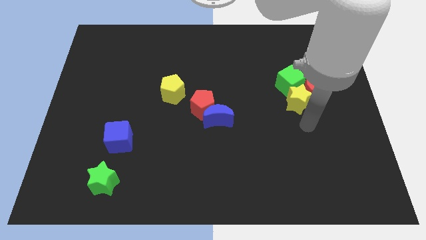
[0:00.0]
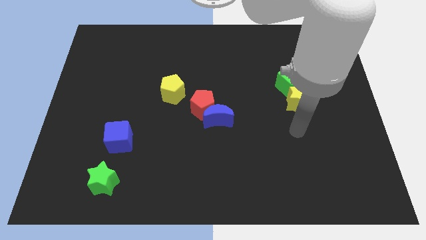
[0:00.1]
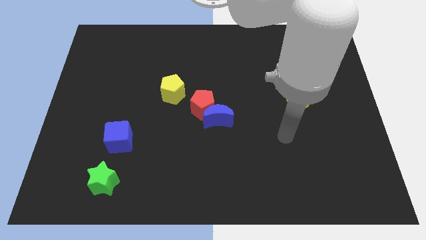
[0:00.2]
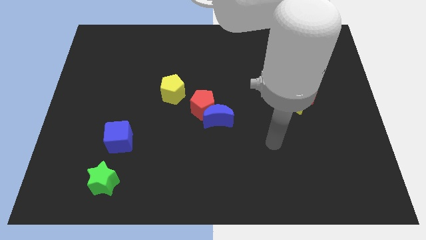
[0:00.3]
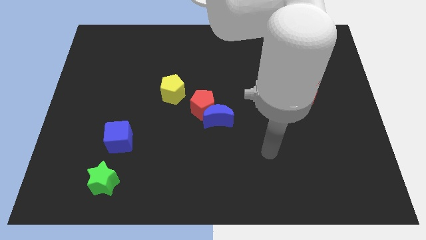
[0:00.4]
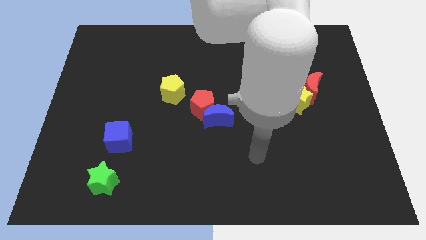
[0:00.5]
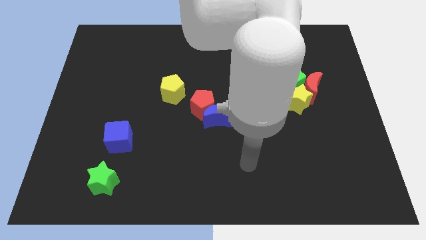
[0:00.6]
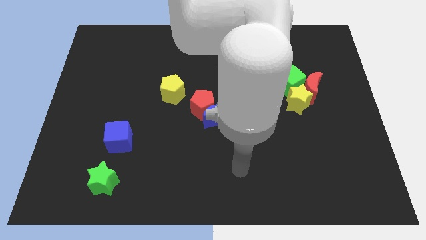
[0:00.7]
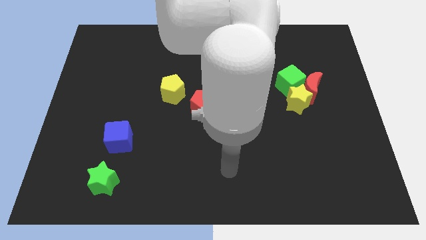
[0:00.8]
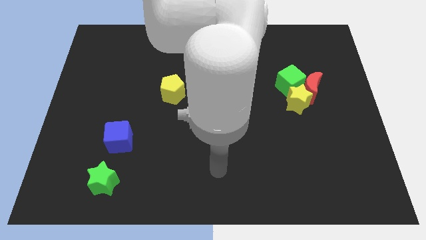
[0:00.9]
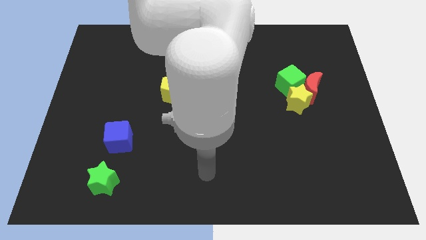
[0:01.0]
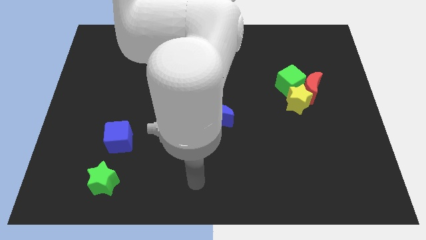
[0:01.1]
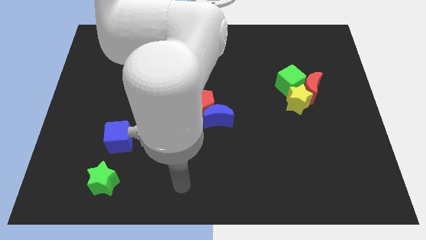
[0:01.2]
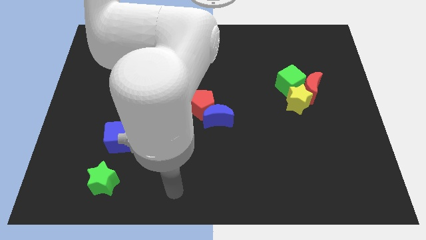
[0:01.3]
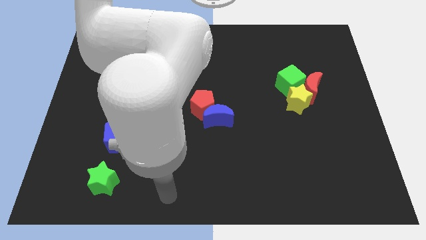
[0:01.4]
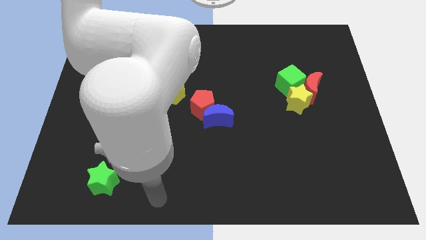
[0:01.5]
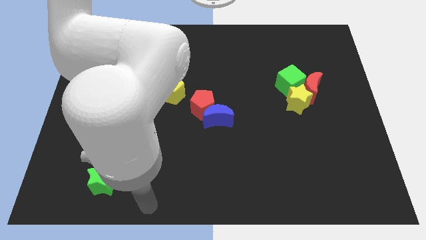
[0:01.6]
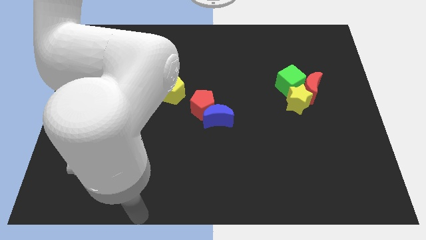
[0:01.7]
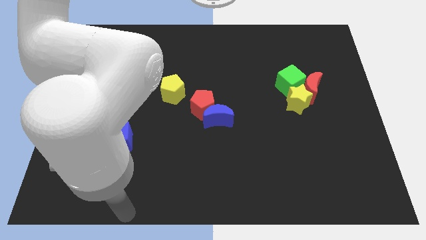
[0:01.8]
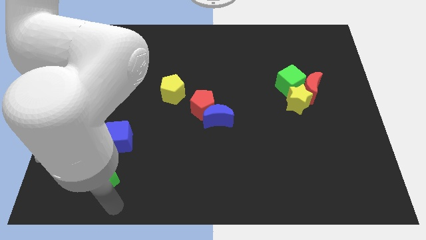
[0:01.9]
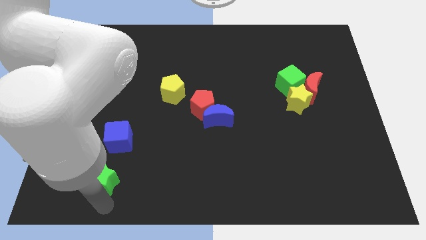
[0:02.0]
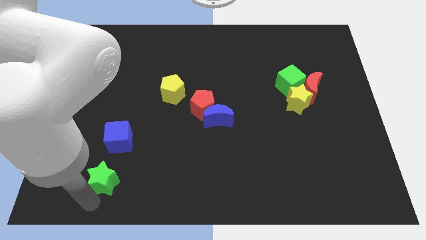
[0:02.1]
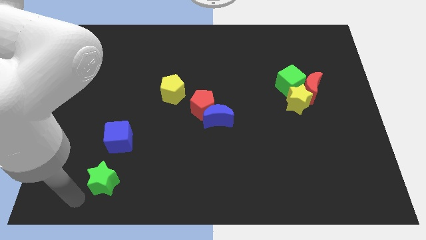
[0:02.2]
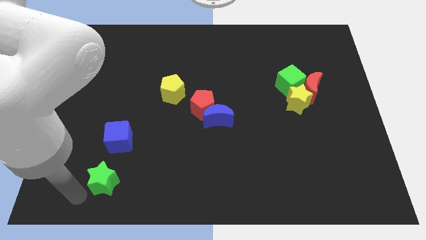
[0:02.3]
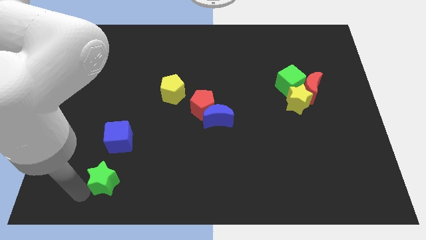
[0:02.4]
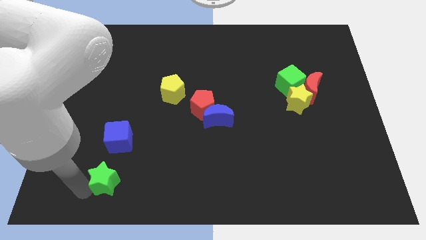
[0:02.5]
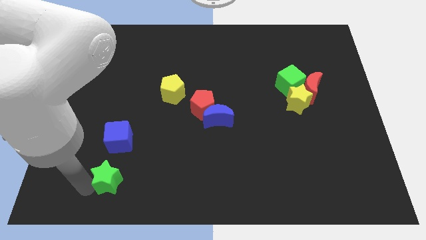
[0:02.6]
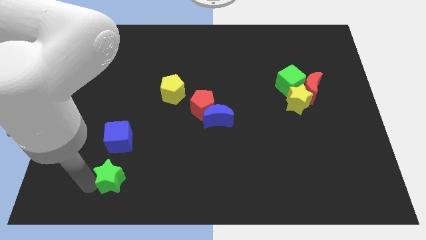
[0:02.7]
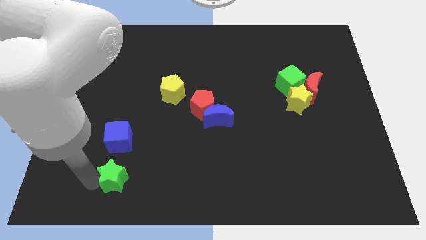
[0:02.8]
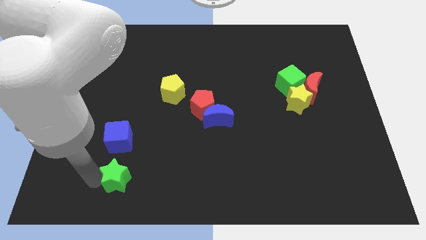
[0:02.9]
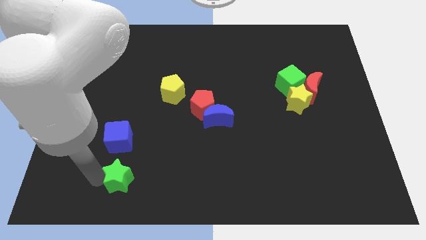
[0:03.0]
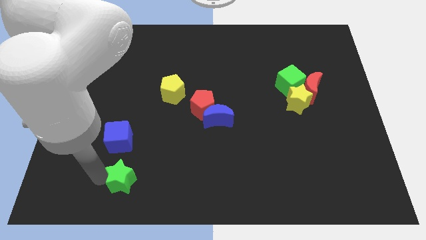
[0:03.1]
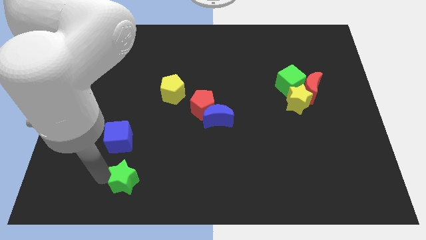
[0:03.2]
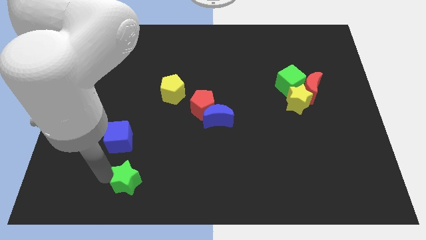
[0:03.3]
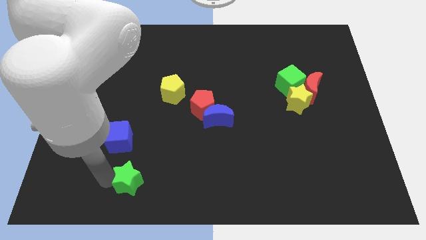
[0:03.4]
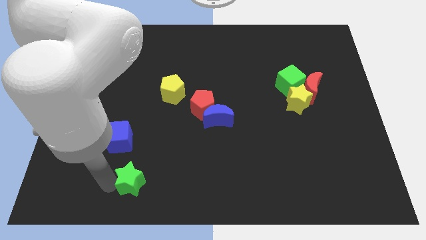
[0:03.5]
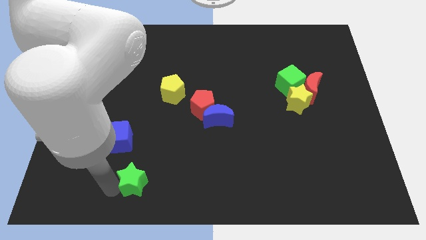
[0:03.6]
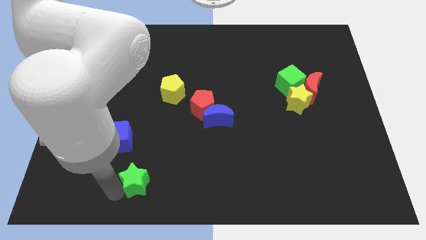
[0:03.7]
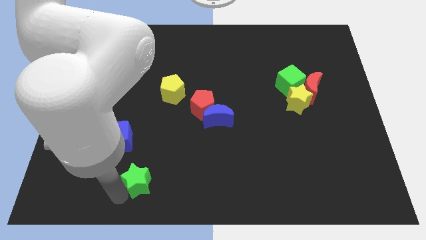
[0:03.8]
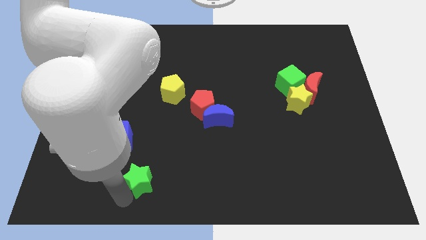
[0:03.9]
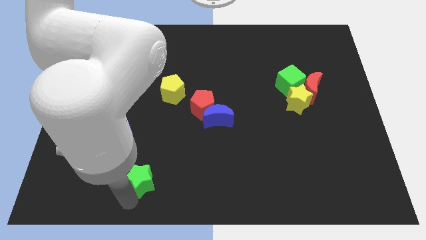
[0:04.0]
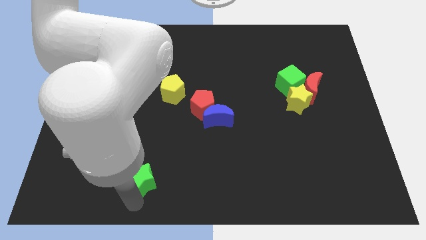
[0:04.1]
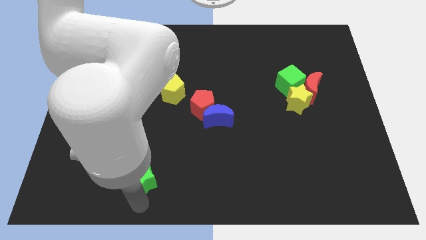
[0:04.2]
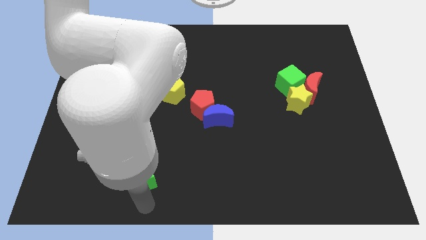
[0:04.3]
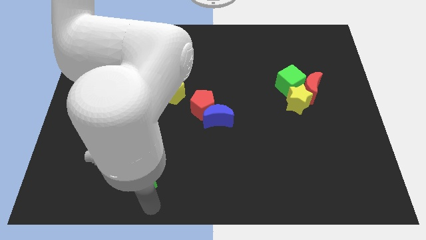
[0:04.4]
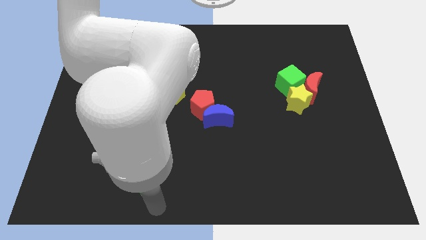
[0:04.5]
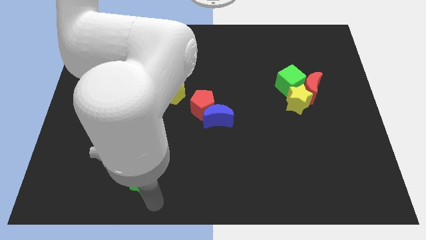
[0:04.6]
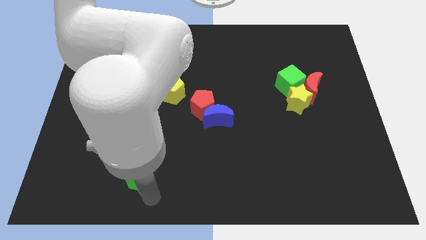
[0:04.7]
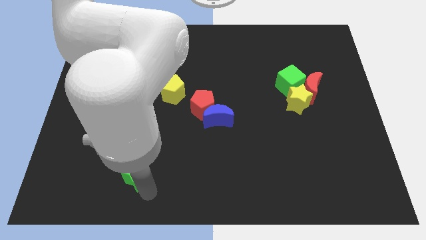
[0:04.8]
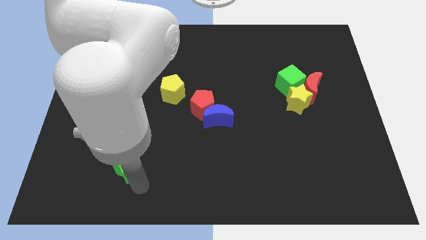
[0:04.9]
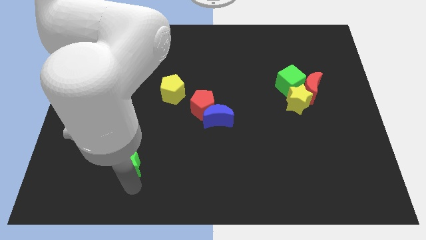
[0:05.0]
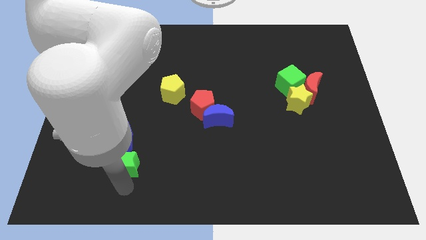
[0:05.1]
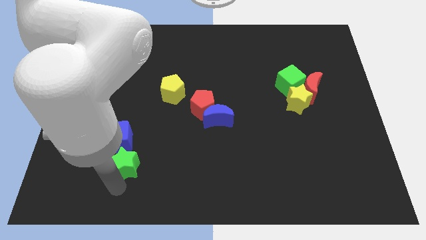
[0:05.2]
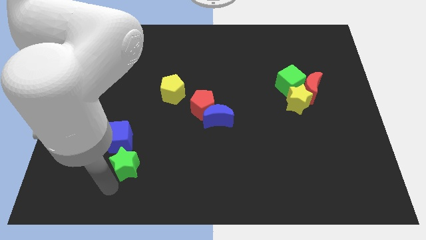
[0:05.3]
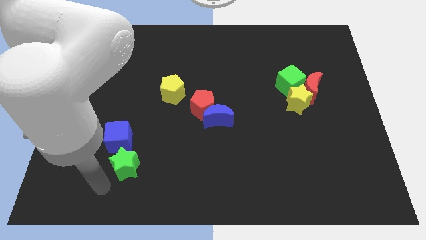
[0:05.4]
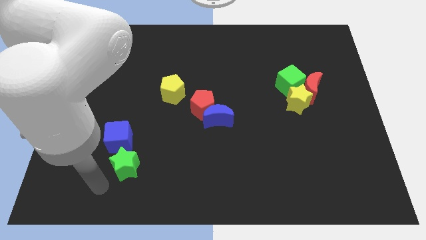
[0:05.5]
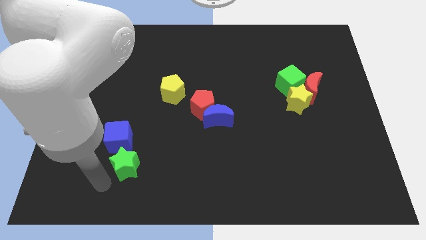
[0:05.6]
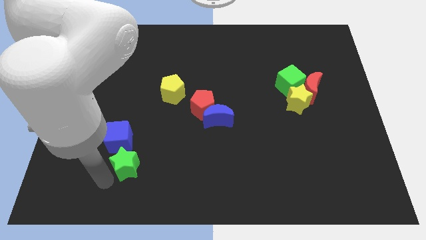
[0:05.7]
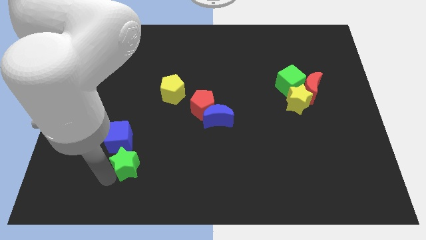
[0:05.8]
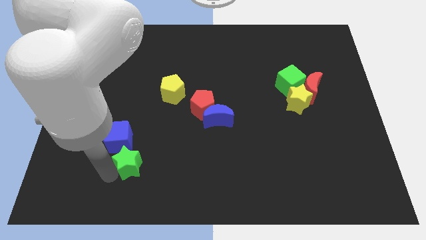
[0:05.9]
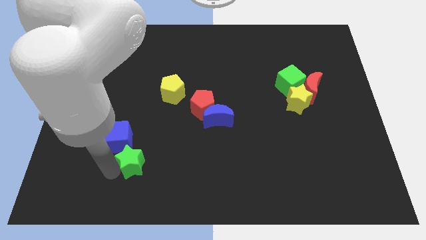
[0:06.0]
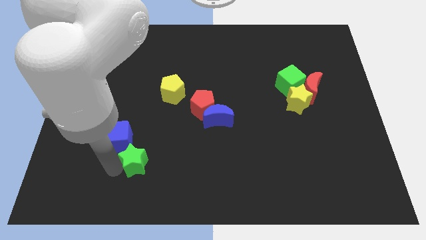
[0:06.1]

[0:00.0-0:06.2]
move the green star a little bit up and then to the right

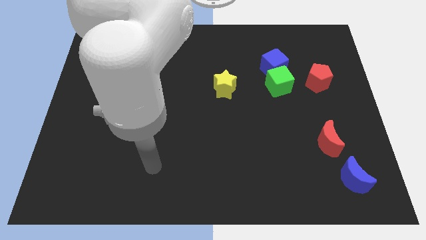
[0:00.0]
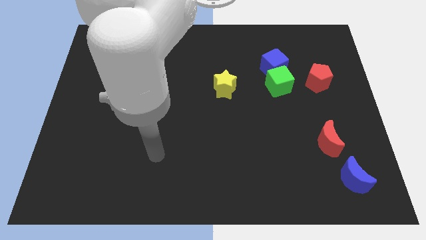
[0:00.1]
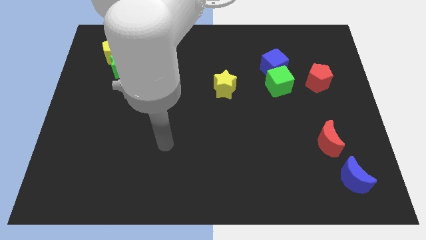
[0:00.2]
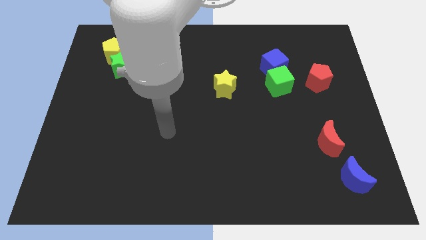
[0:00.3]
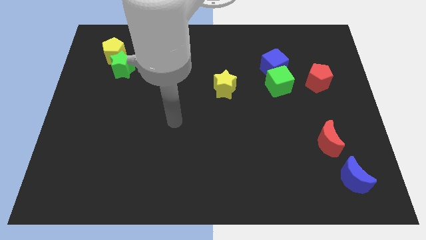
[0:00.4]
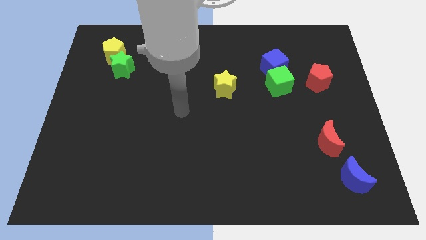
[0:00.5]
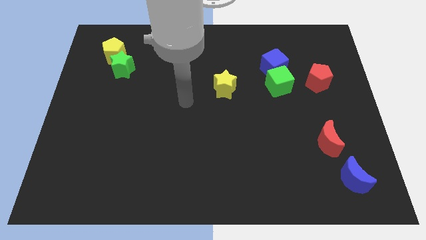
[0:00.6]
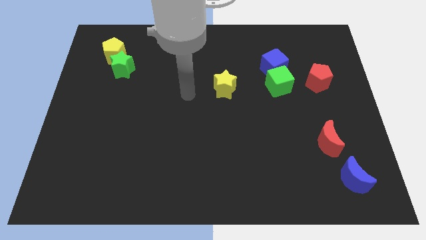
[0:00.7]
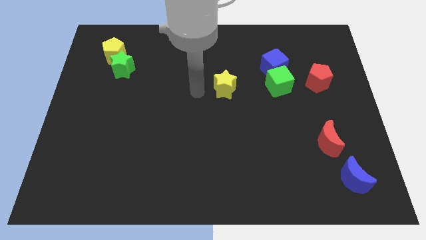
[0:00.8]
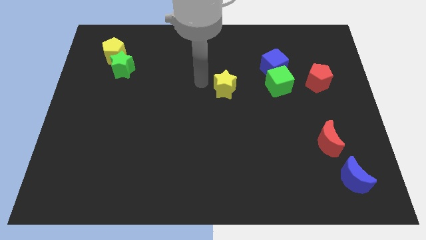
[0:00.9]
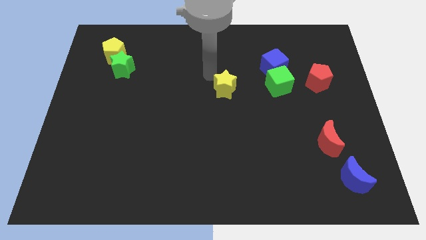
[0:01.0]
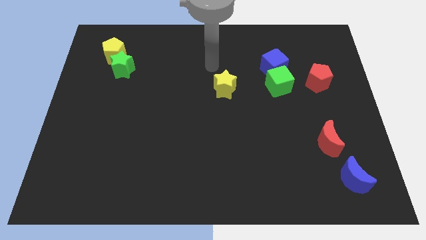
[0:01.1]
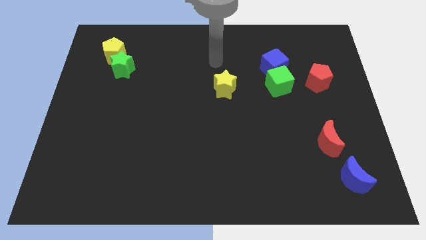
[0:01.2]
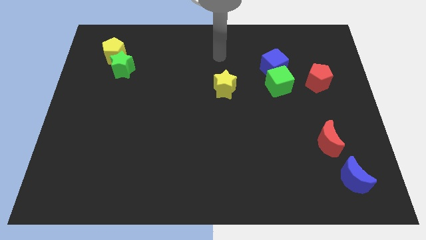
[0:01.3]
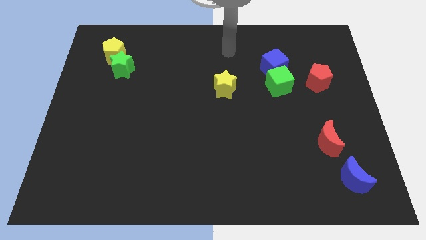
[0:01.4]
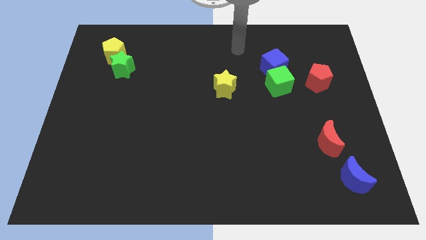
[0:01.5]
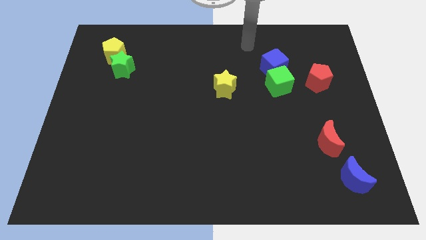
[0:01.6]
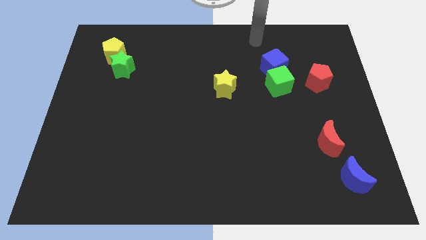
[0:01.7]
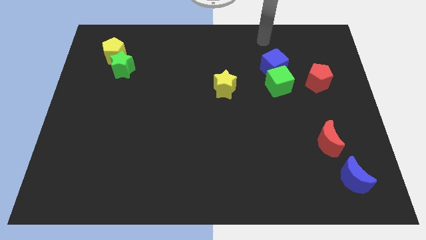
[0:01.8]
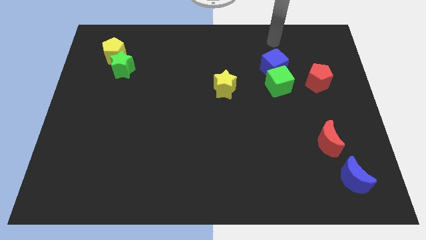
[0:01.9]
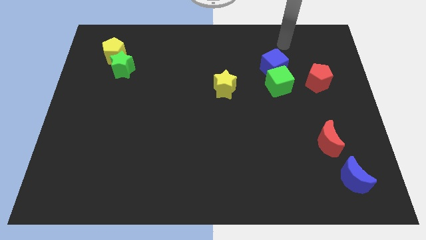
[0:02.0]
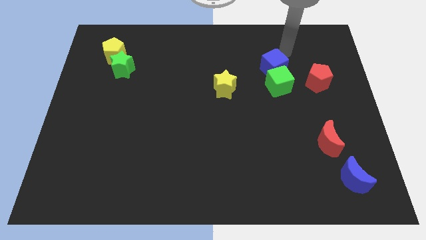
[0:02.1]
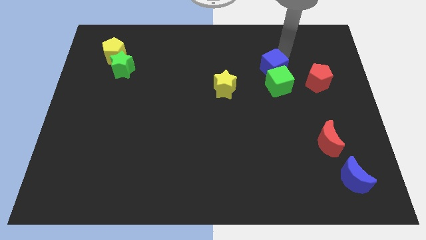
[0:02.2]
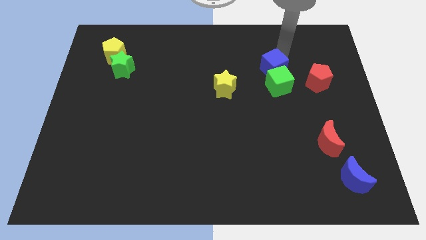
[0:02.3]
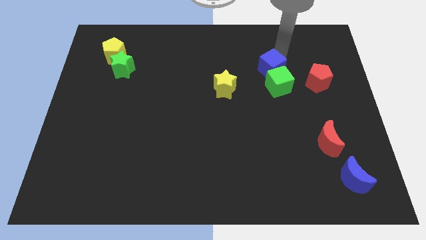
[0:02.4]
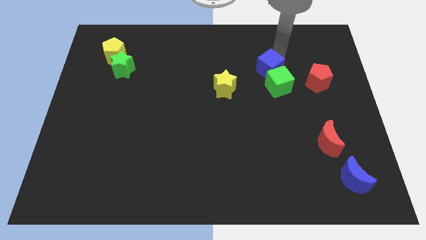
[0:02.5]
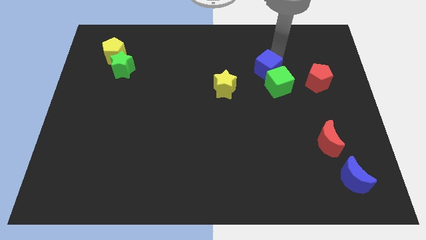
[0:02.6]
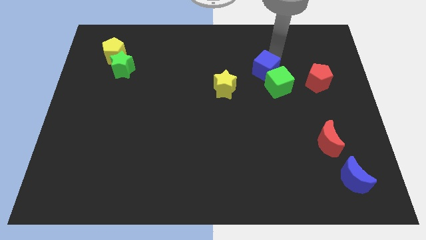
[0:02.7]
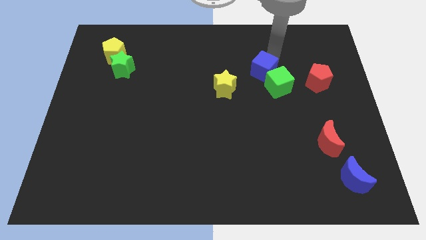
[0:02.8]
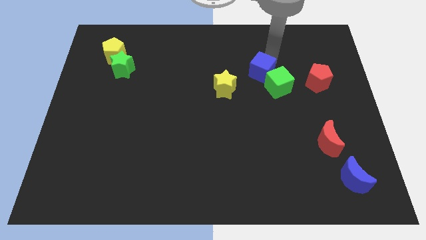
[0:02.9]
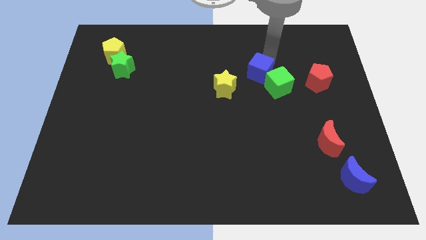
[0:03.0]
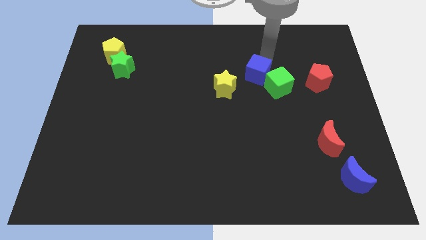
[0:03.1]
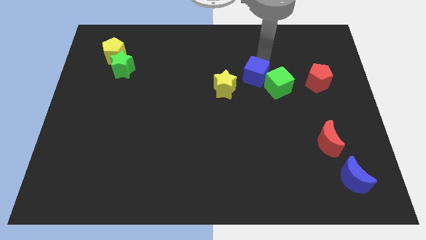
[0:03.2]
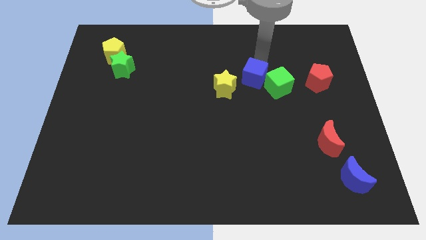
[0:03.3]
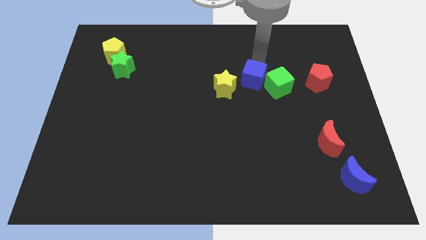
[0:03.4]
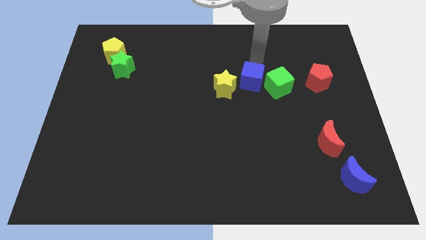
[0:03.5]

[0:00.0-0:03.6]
slide the blue cube downwards and to the left a bit
